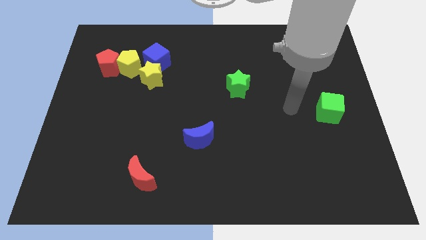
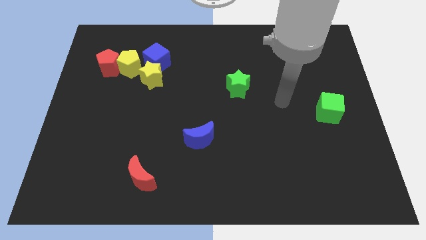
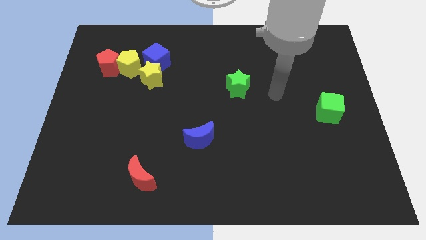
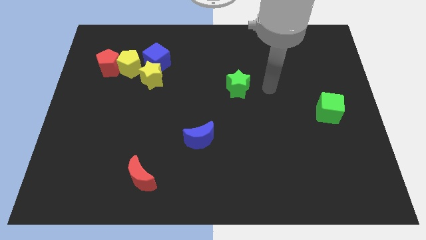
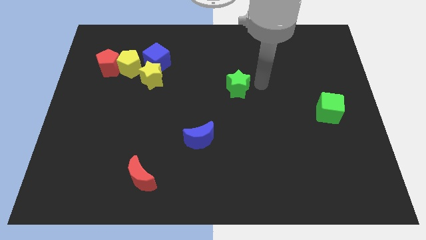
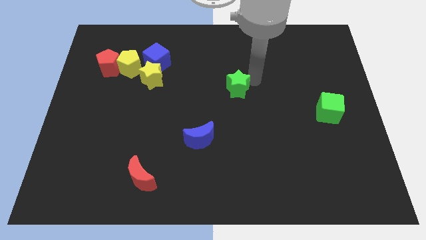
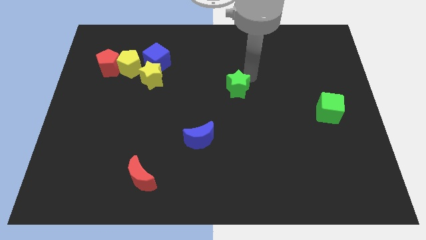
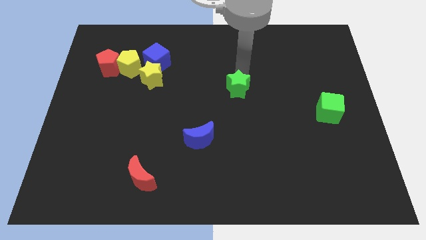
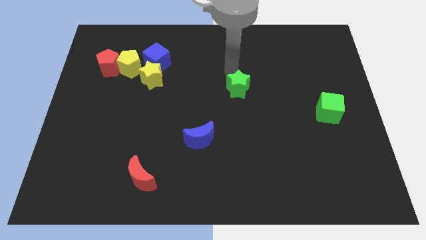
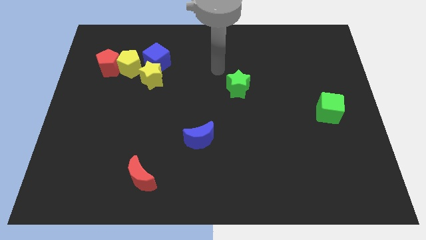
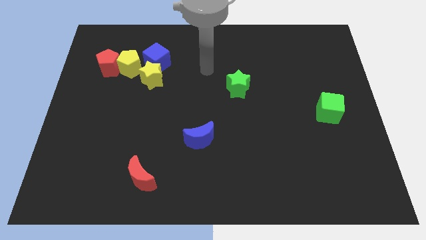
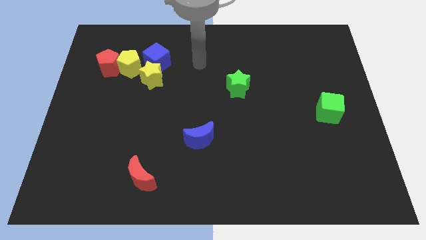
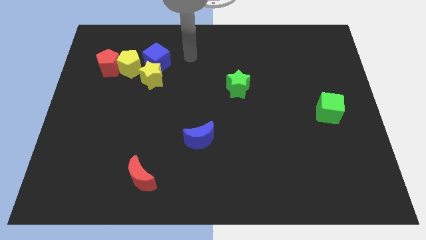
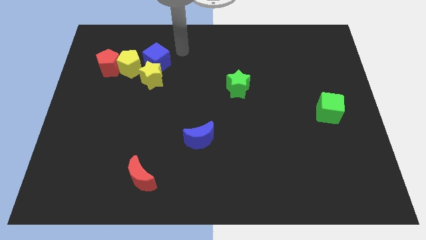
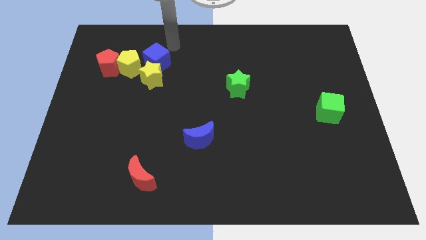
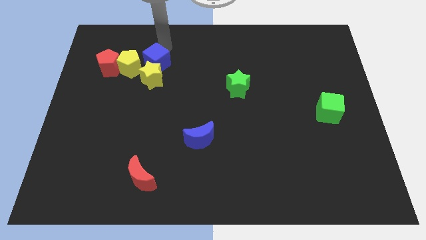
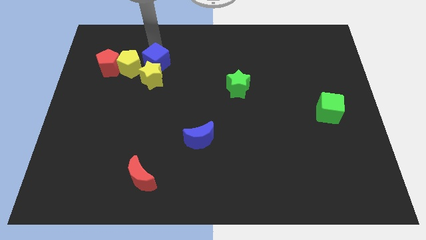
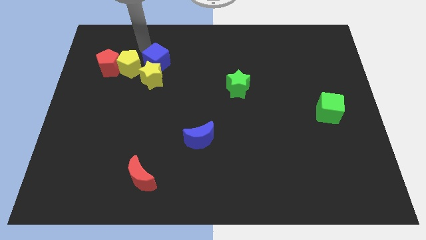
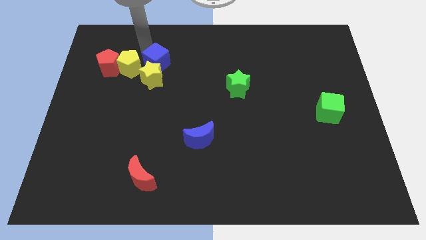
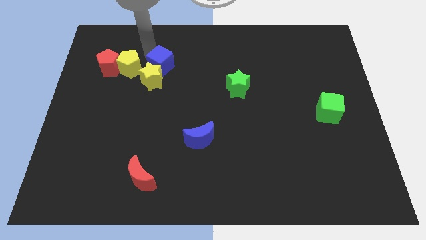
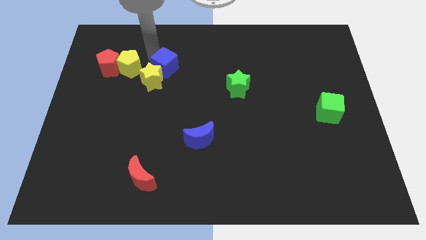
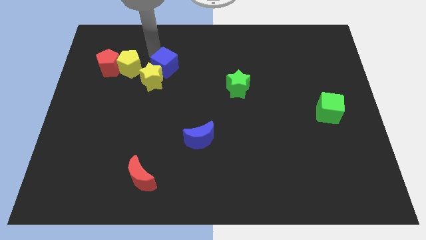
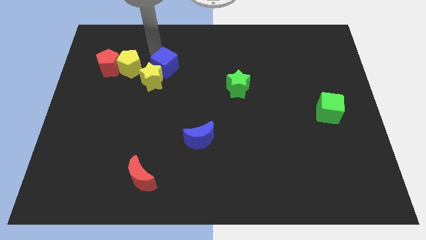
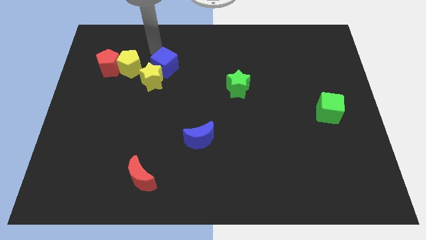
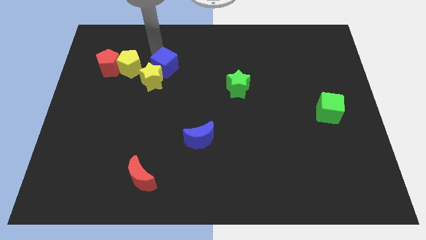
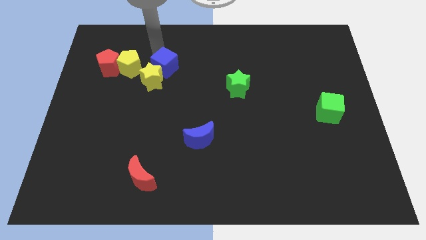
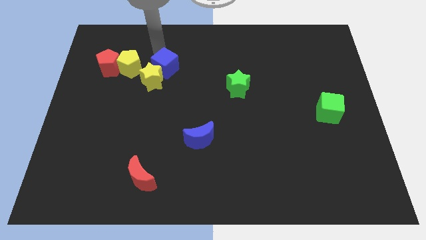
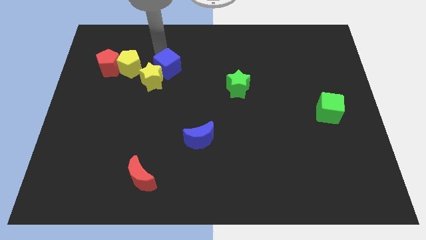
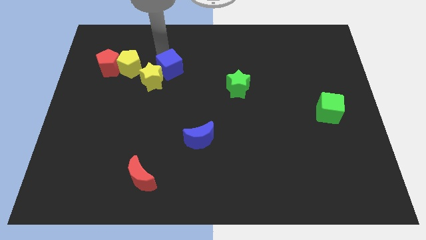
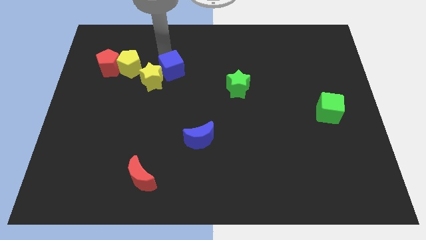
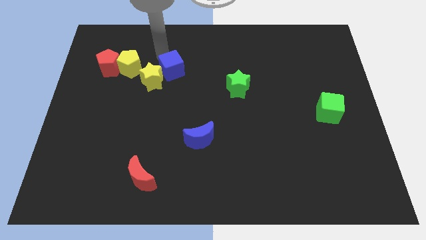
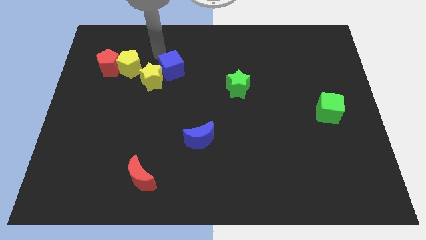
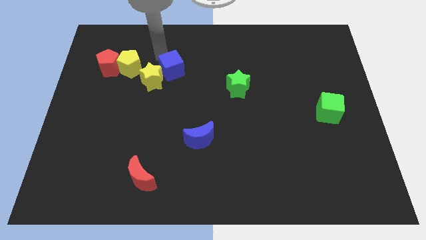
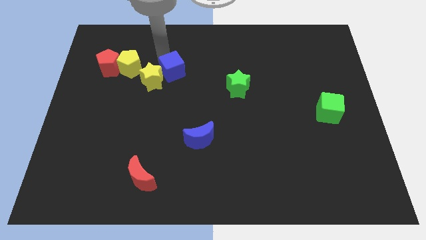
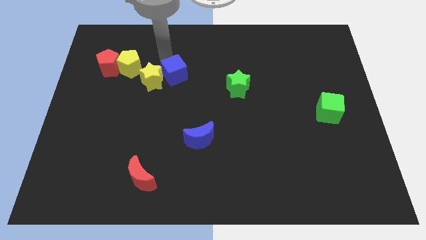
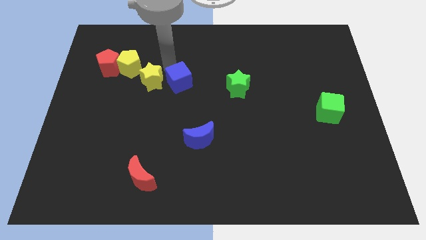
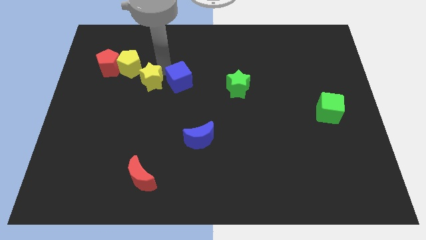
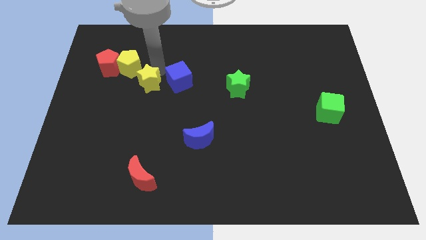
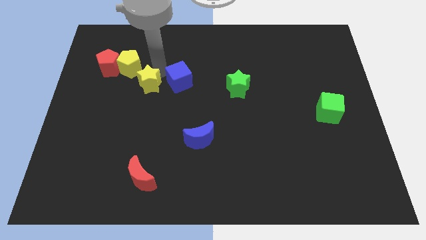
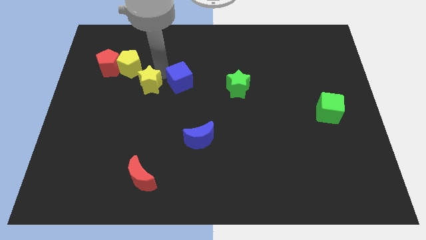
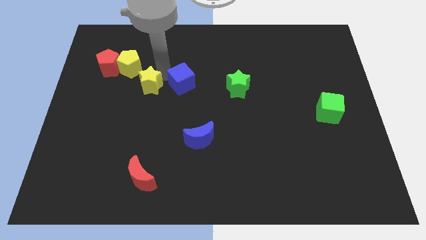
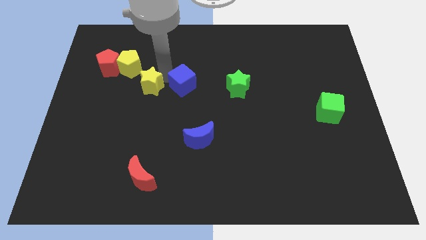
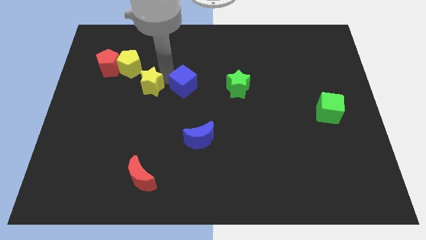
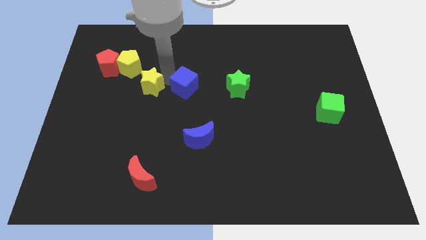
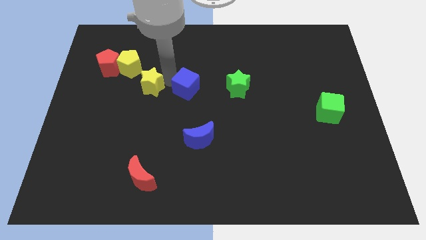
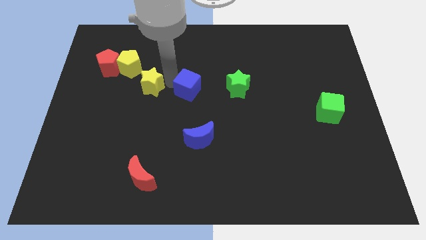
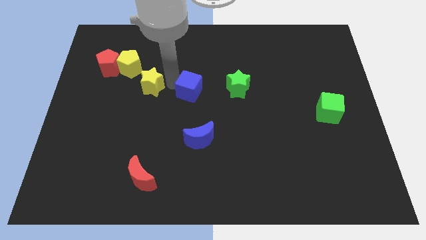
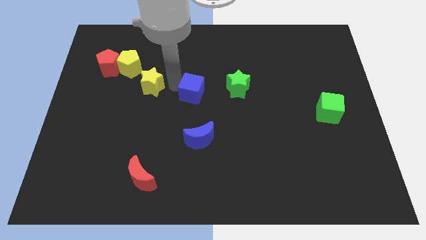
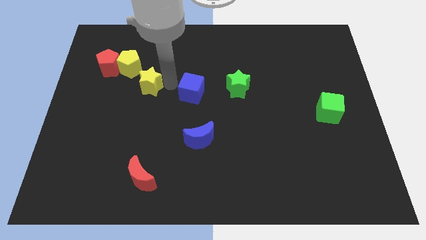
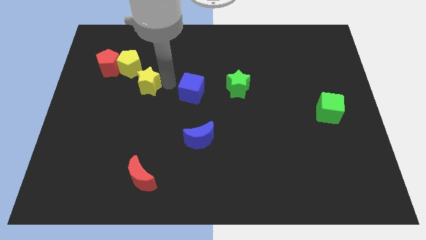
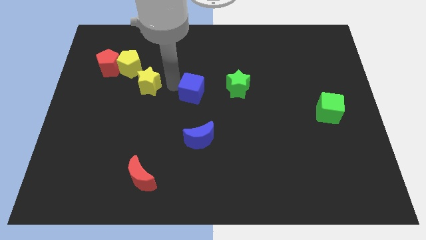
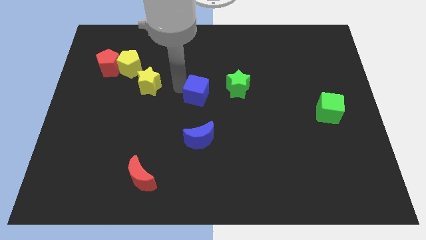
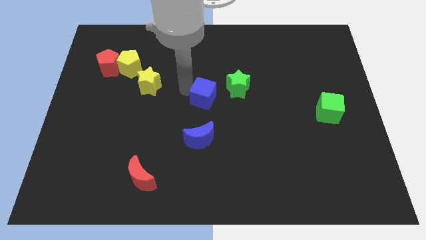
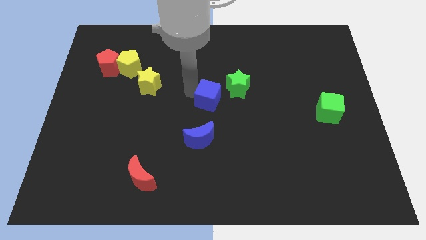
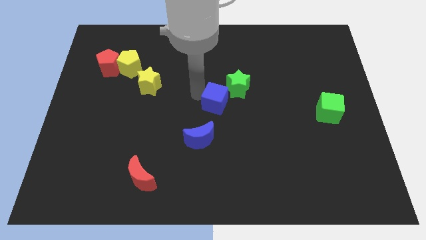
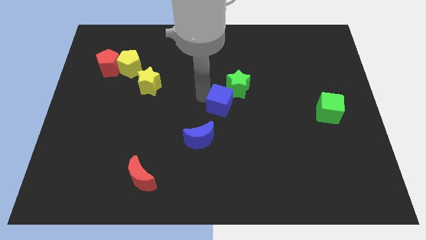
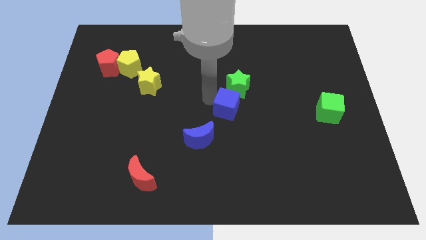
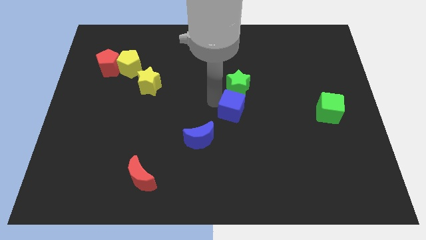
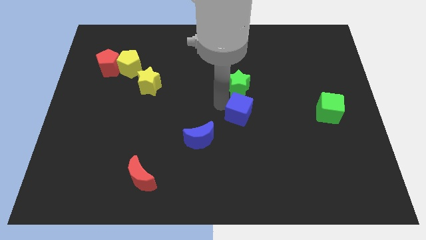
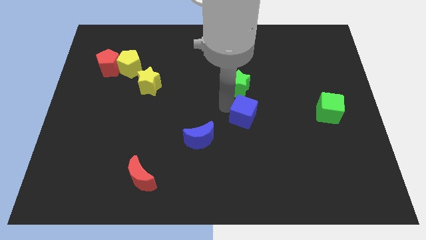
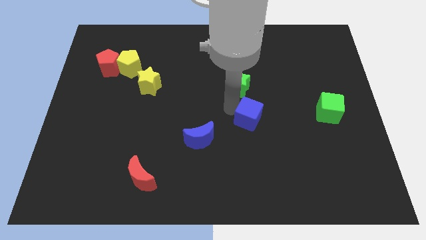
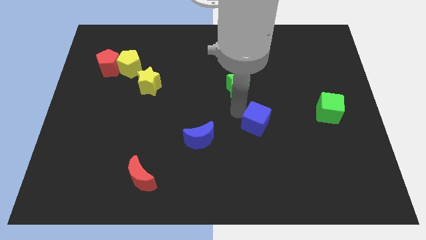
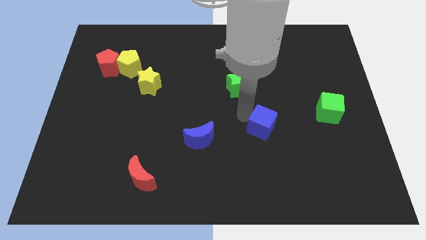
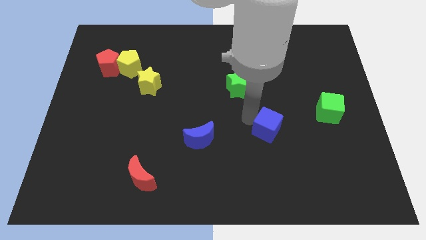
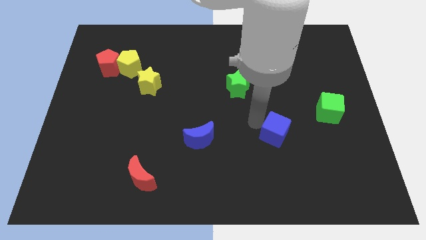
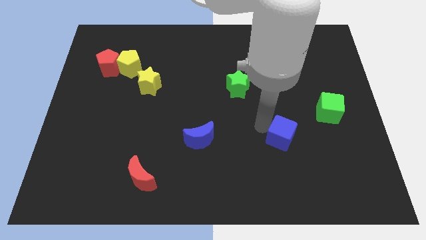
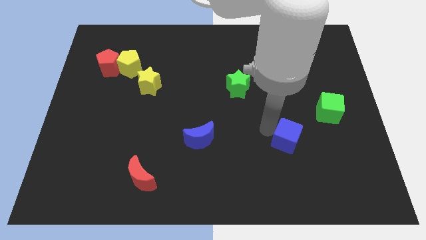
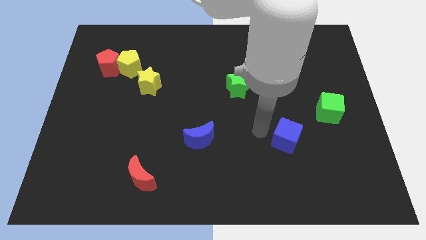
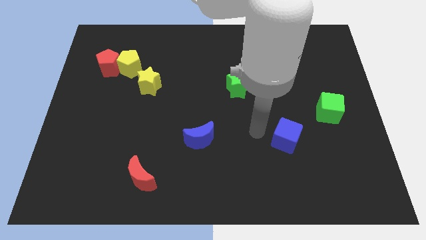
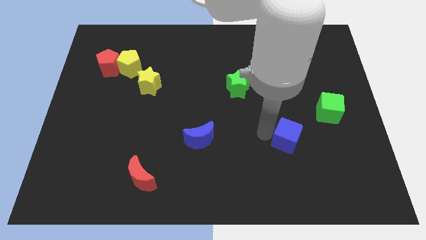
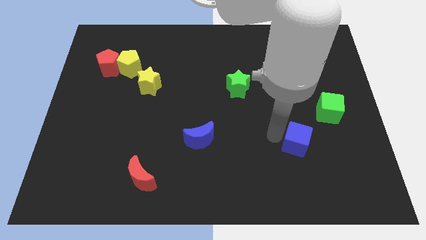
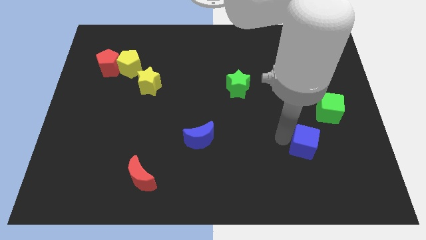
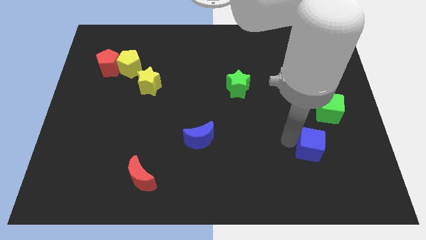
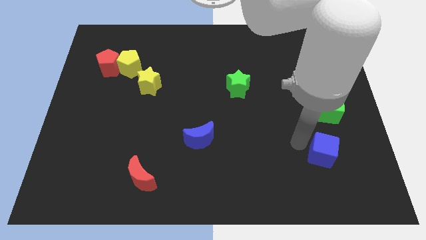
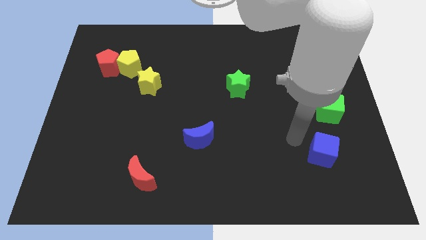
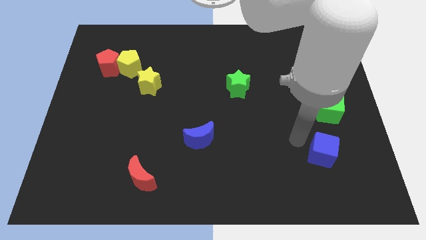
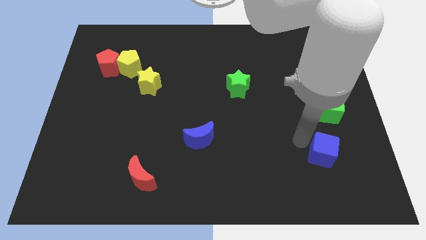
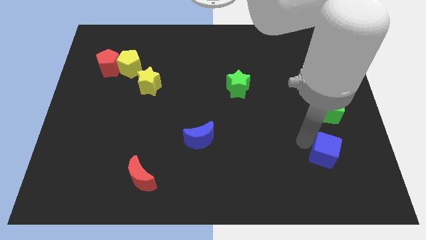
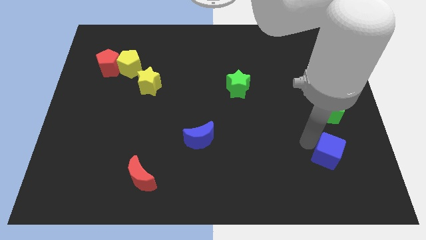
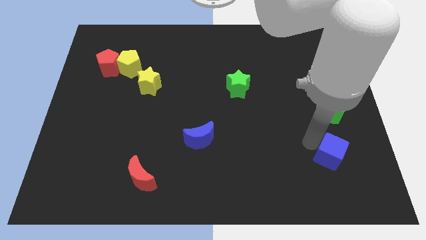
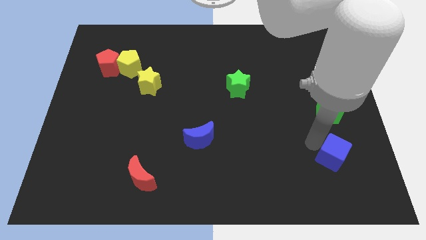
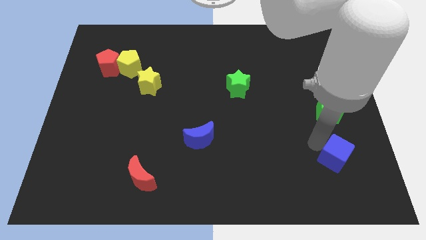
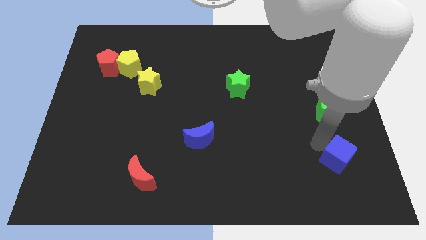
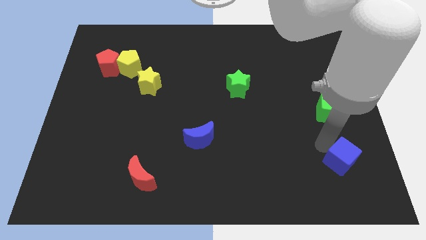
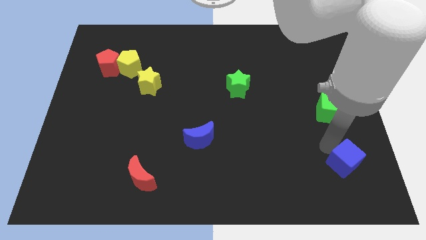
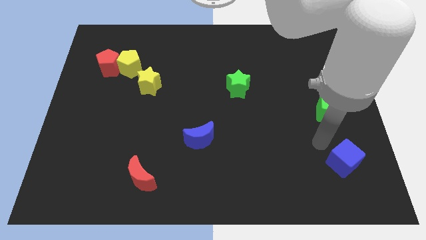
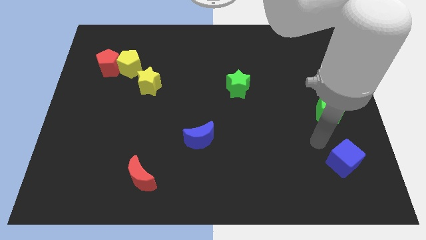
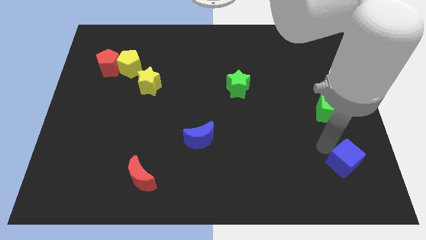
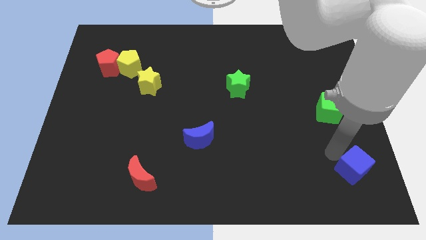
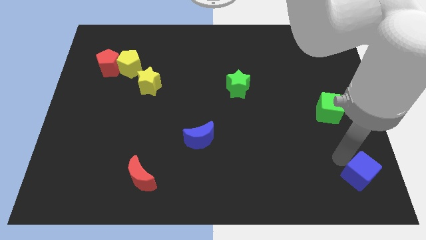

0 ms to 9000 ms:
slide the blue cube to the bottom right
